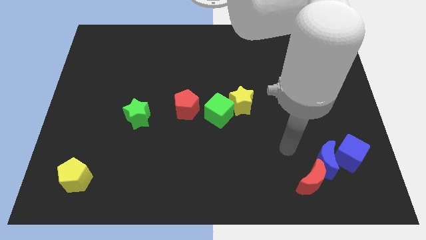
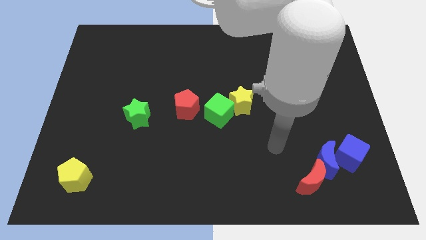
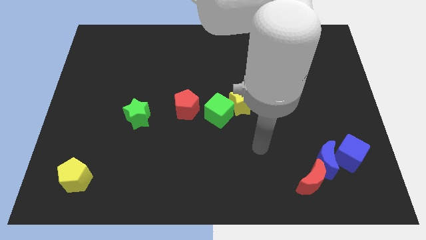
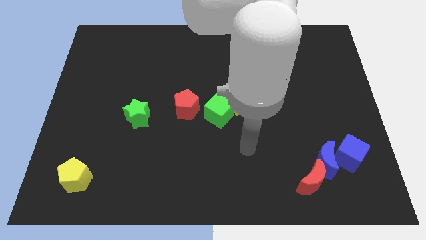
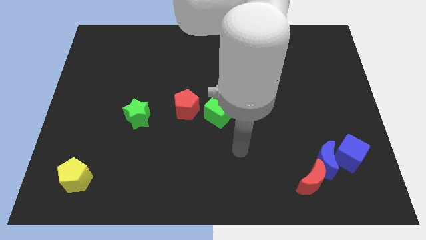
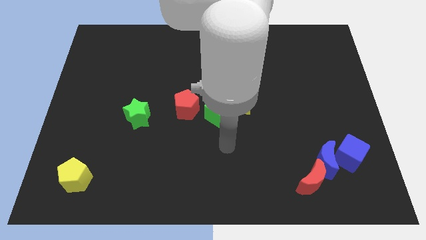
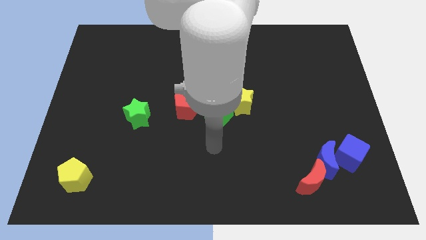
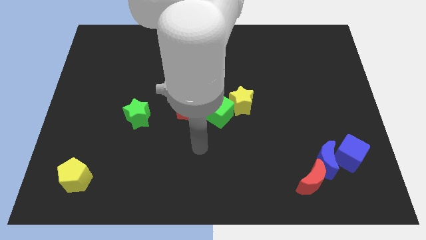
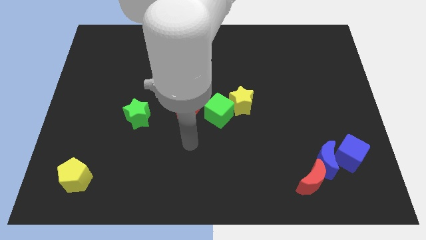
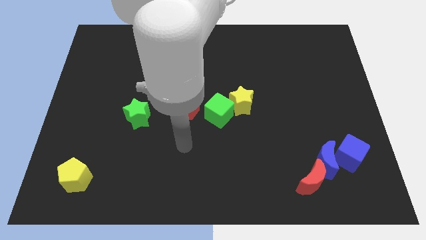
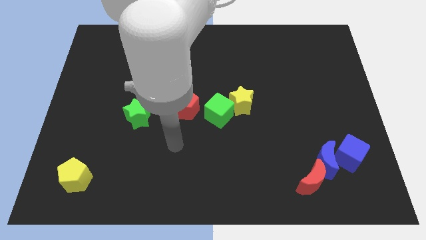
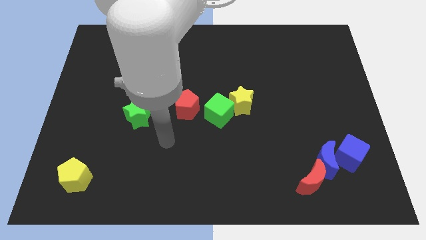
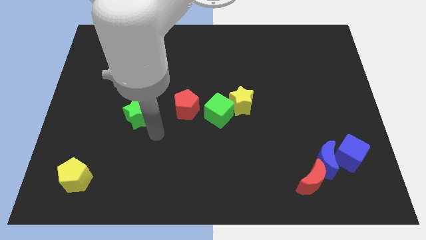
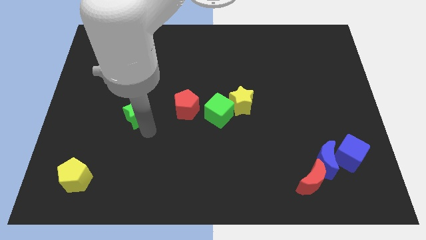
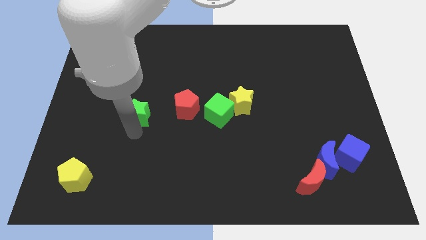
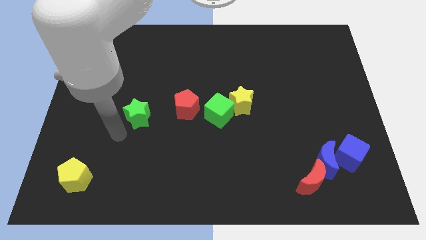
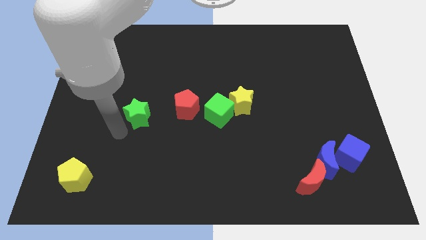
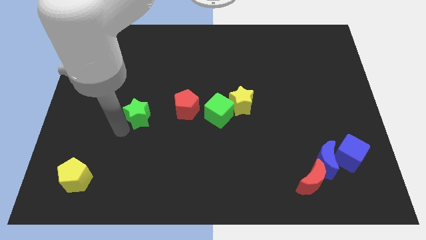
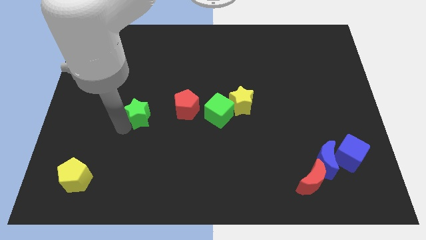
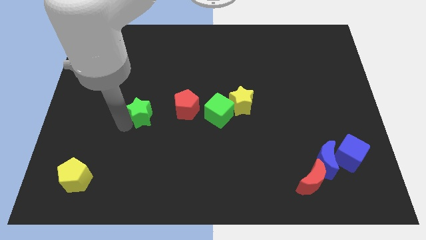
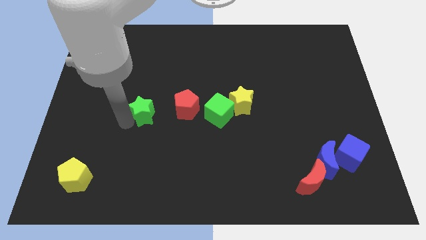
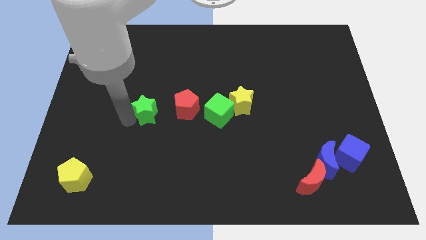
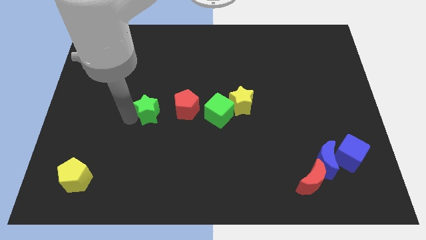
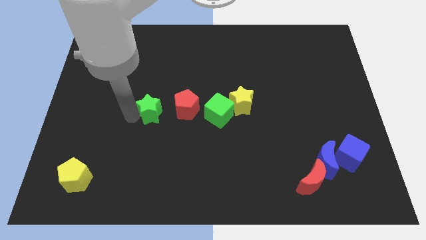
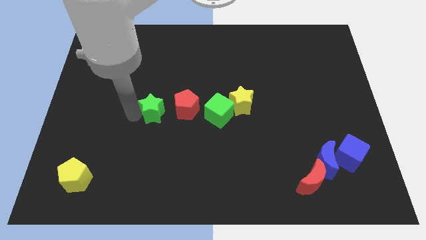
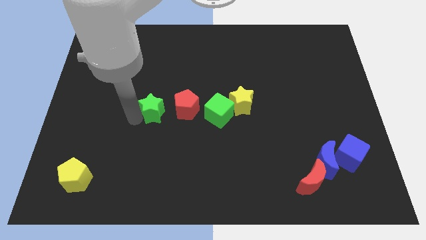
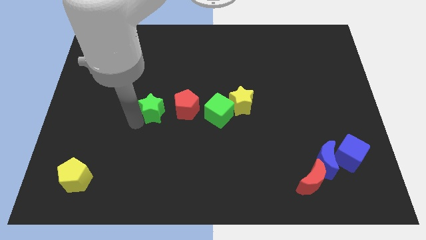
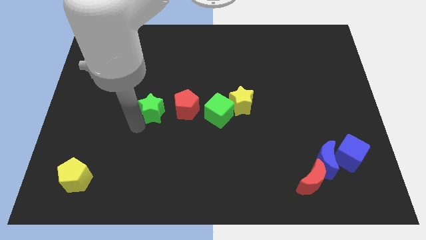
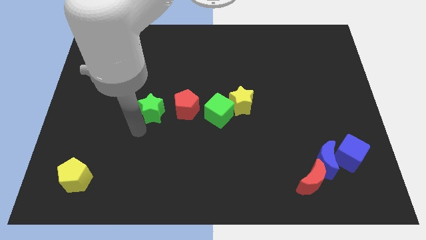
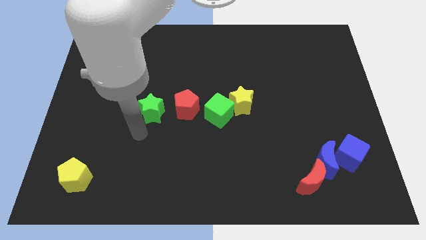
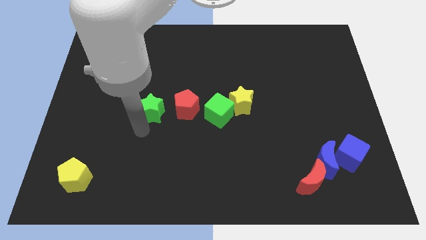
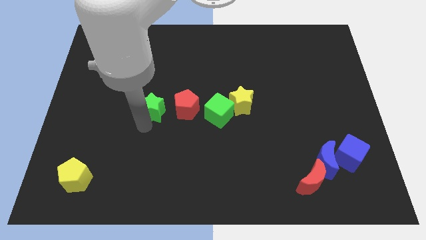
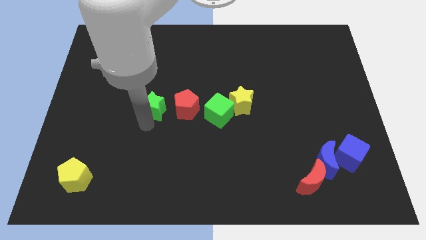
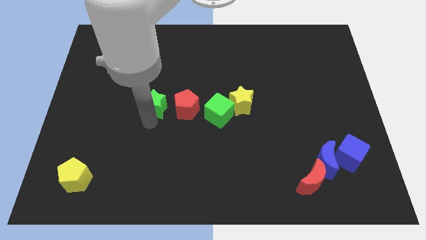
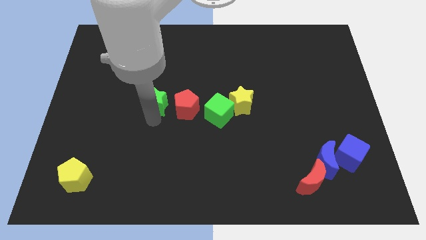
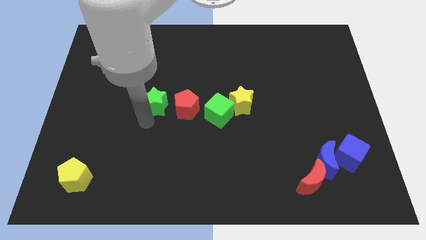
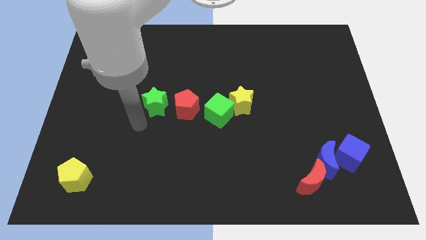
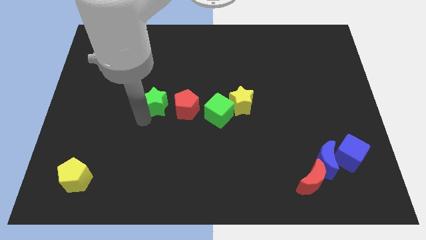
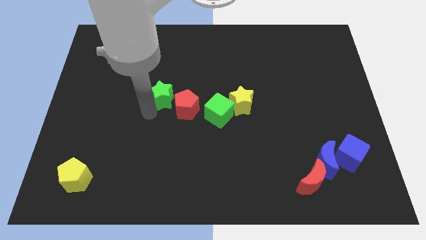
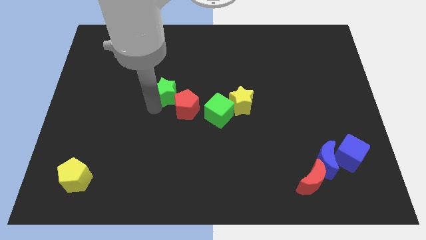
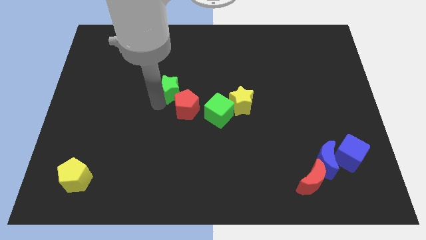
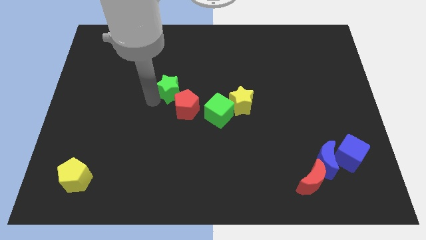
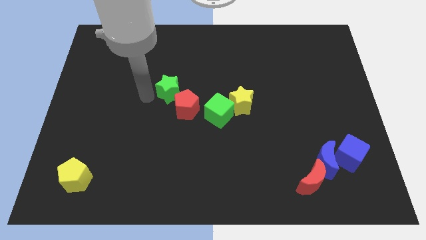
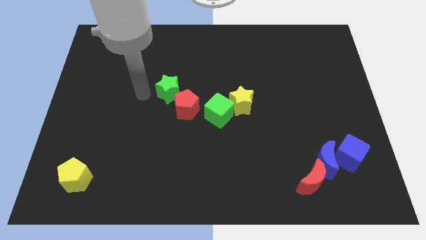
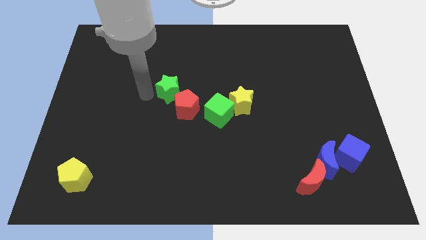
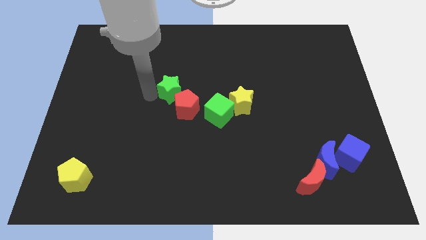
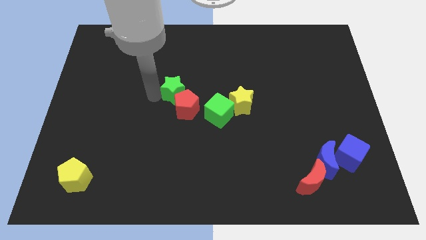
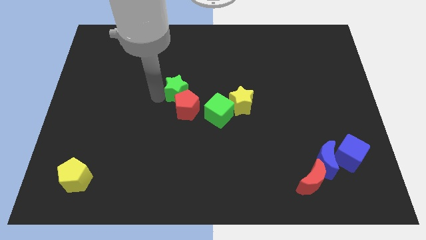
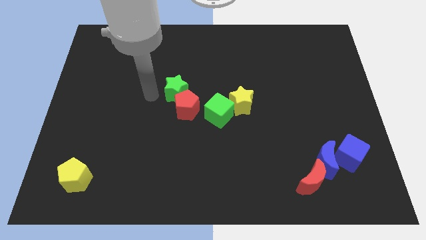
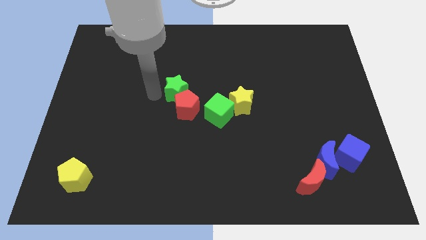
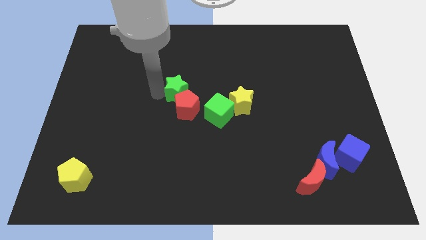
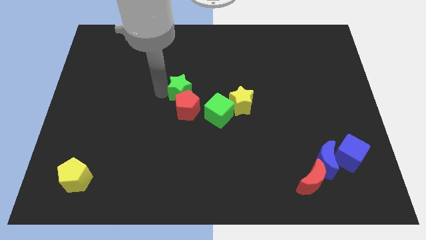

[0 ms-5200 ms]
push the green star diagonally up and to the right of the red pentagon

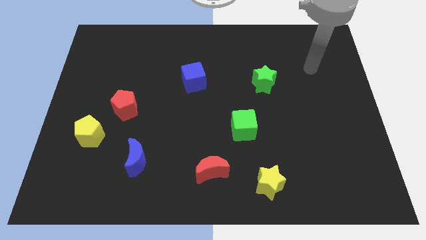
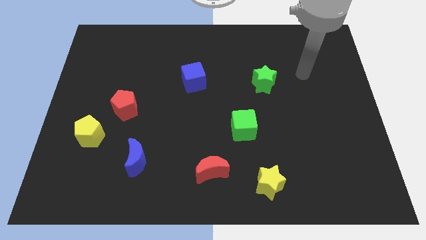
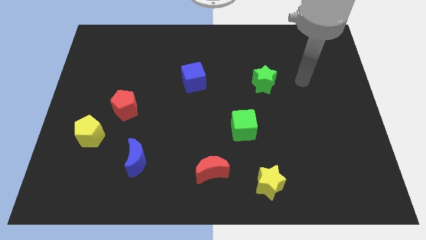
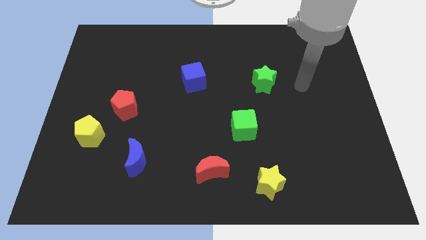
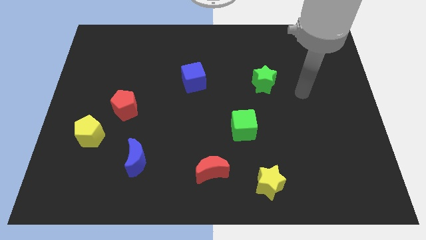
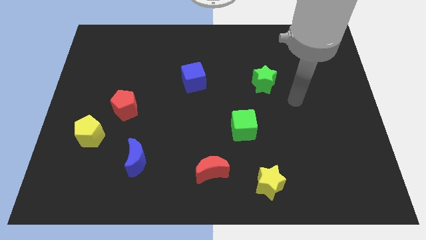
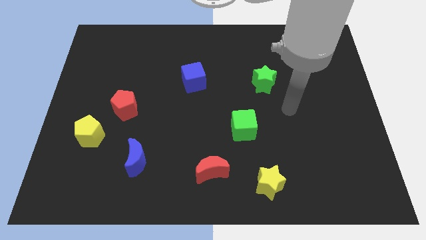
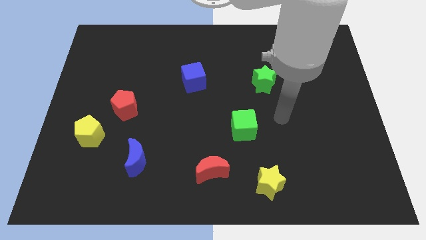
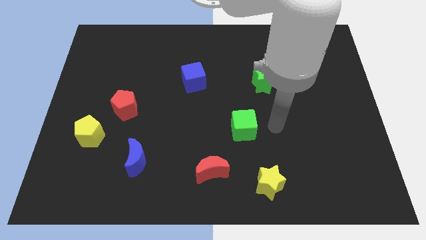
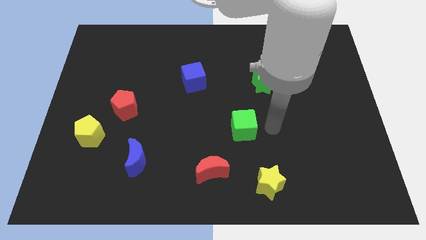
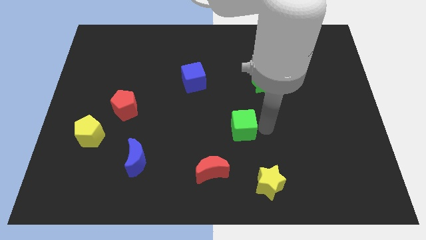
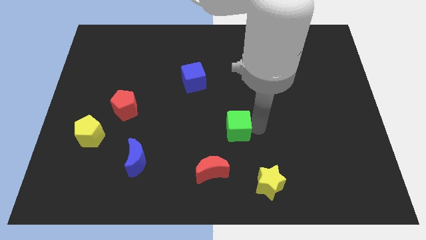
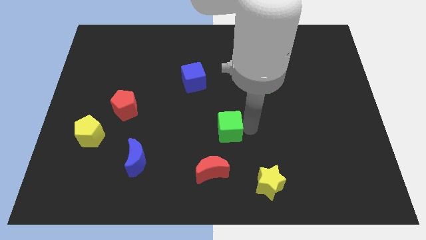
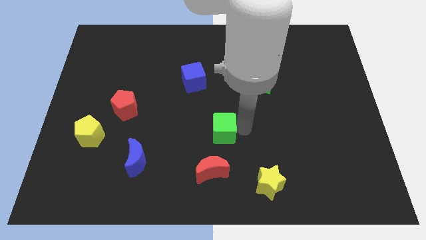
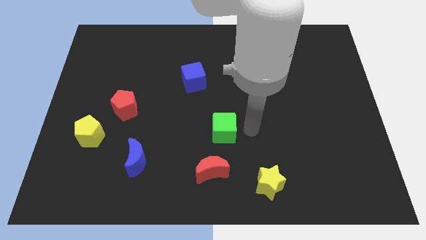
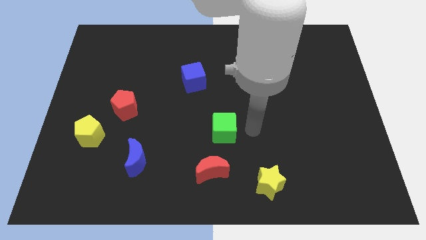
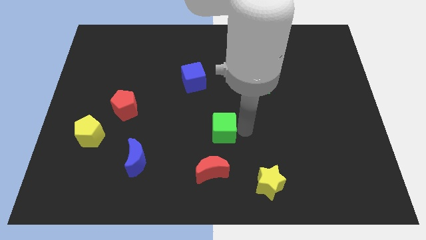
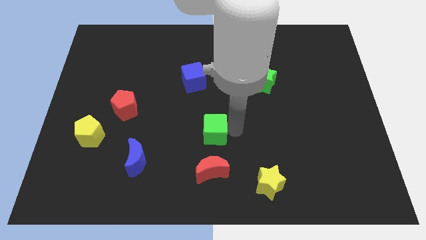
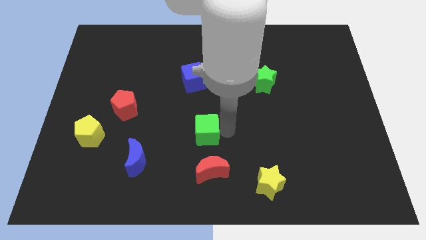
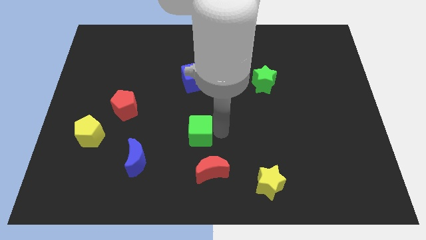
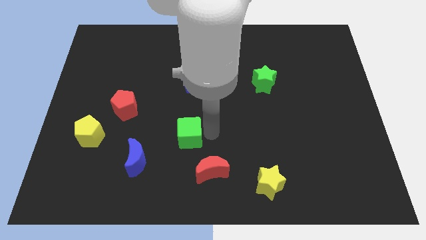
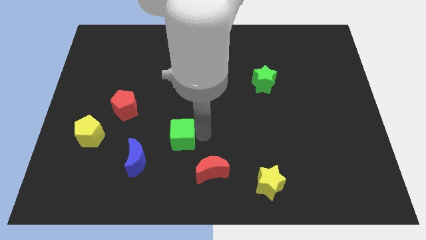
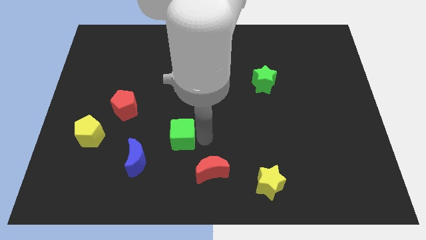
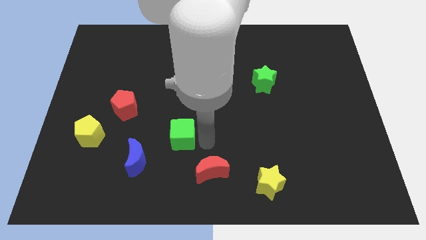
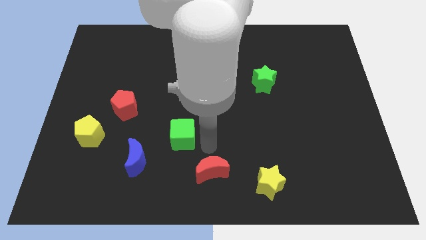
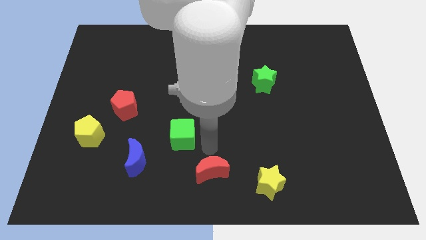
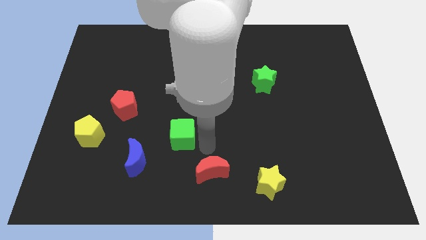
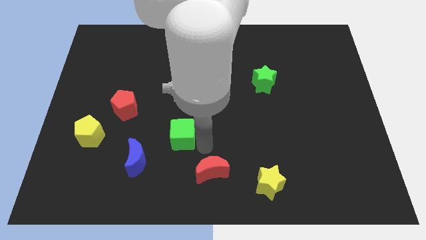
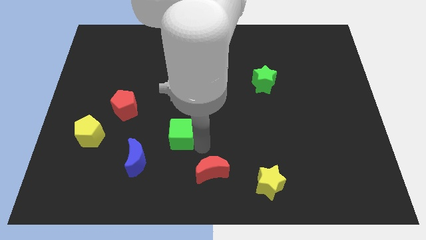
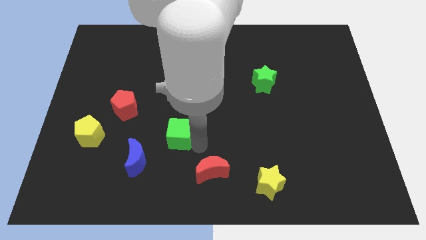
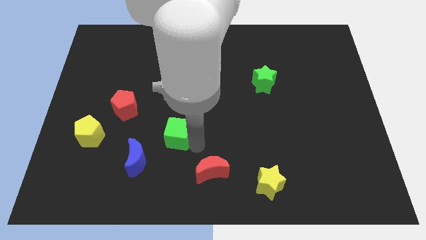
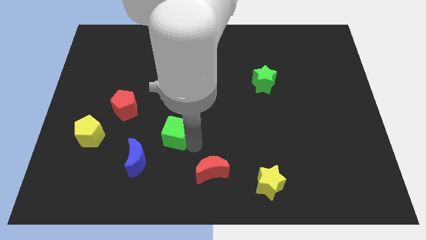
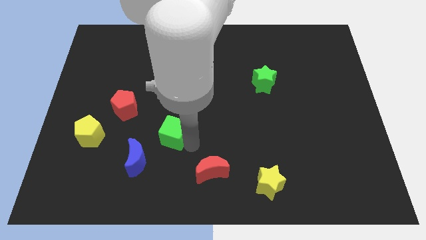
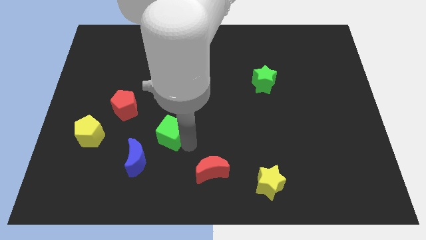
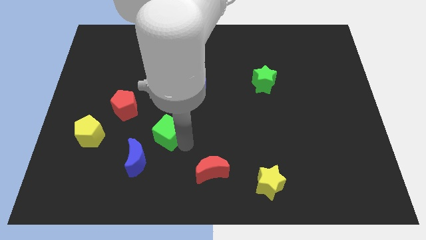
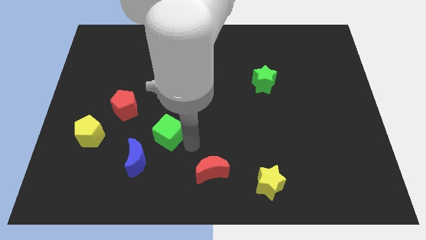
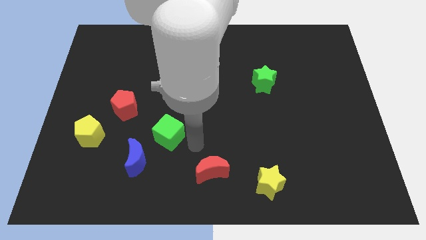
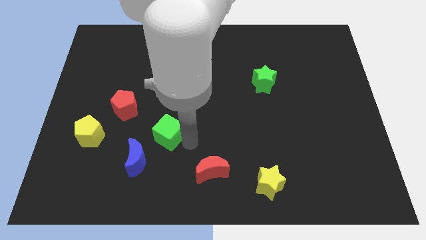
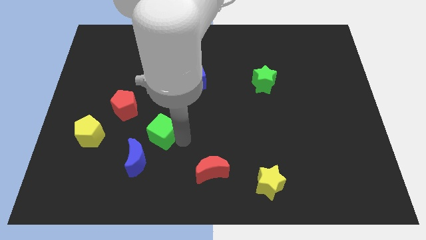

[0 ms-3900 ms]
move the green cube to the bottom right side of the red pentagon
